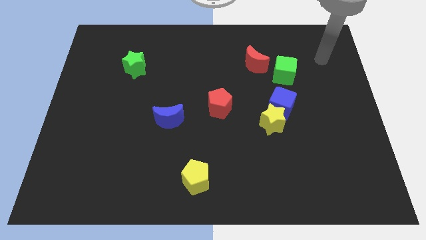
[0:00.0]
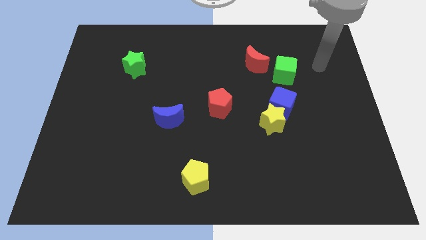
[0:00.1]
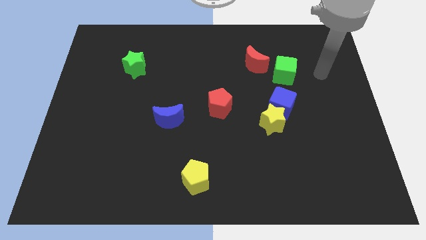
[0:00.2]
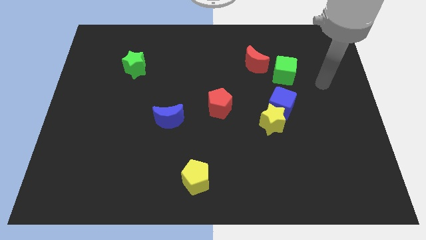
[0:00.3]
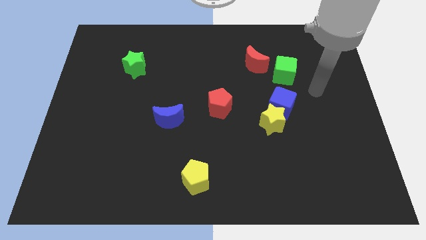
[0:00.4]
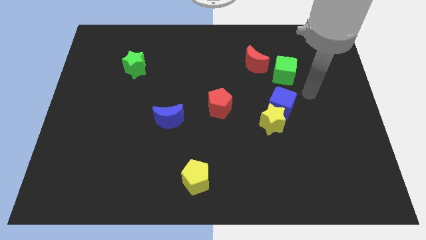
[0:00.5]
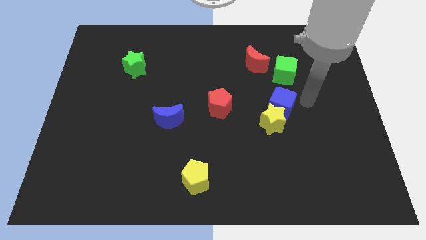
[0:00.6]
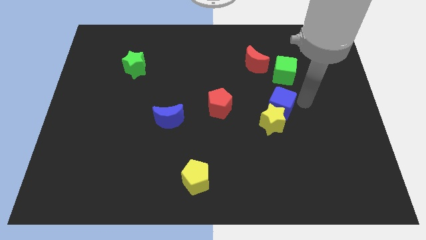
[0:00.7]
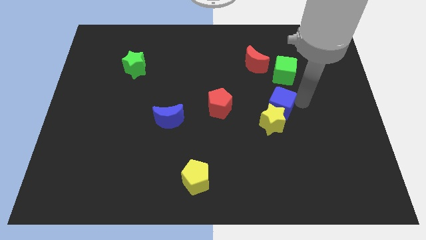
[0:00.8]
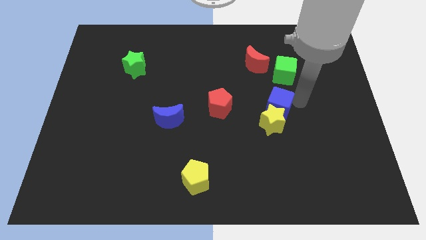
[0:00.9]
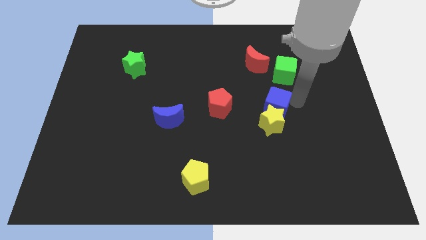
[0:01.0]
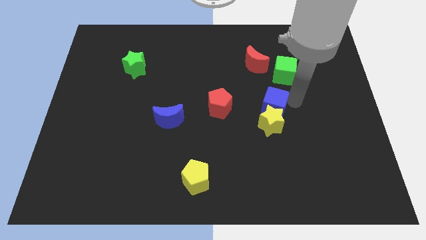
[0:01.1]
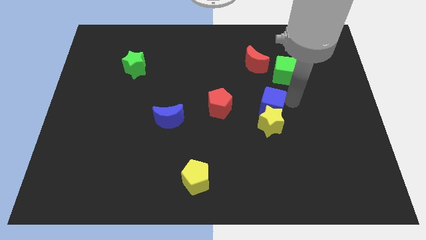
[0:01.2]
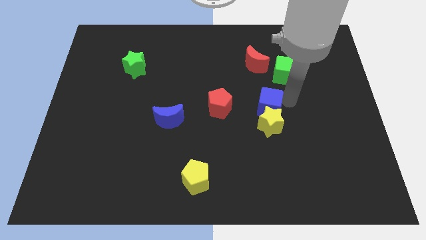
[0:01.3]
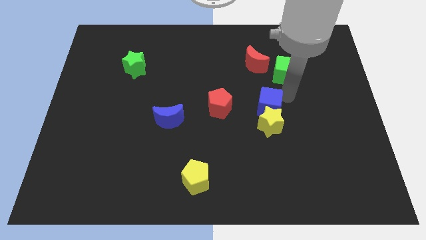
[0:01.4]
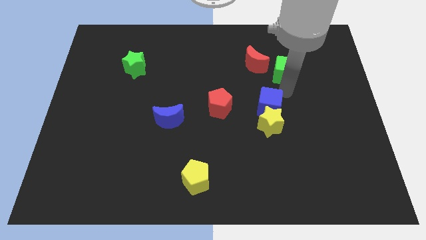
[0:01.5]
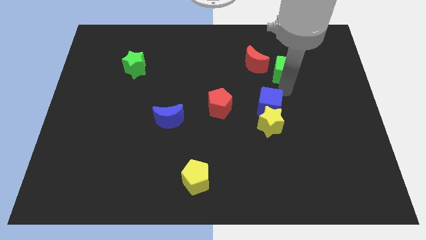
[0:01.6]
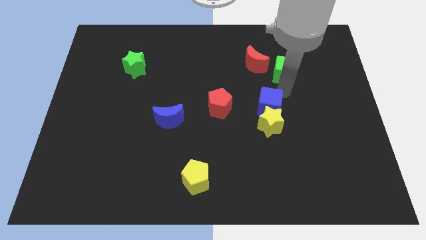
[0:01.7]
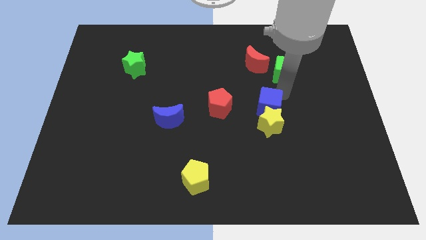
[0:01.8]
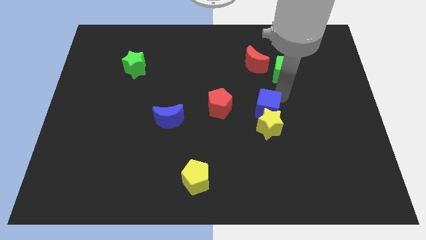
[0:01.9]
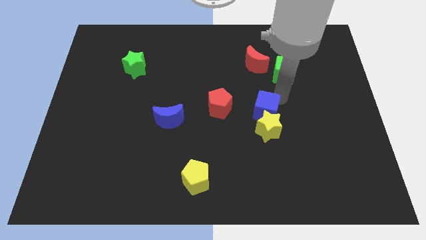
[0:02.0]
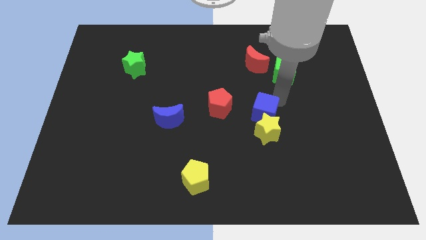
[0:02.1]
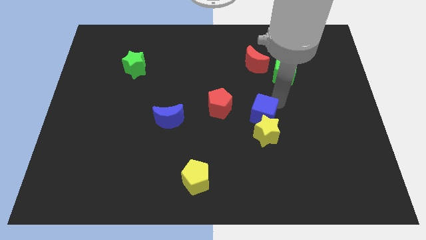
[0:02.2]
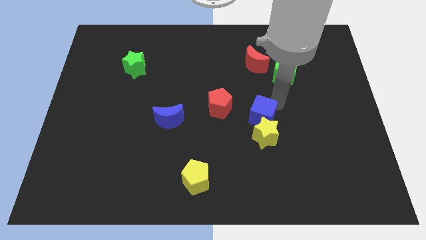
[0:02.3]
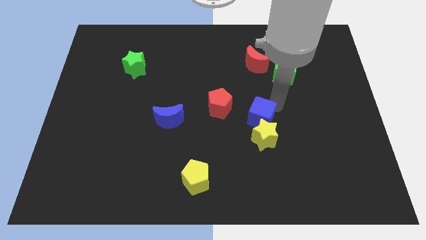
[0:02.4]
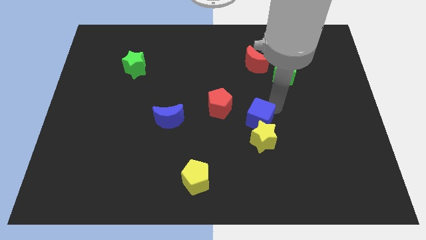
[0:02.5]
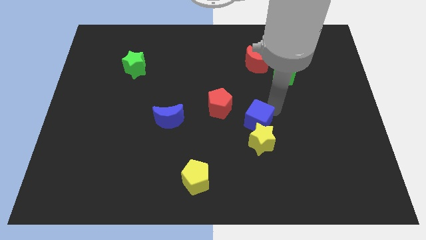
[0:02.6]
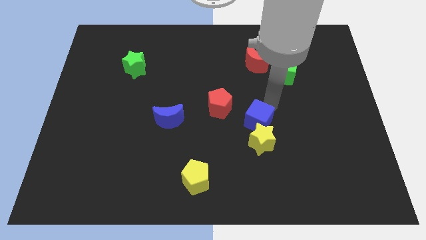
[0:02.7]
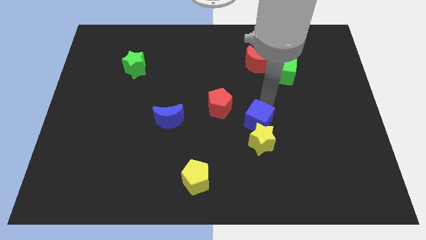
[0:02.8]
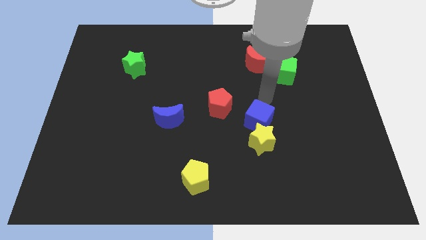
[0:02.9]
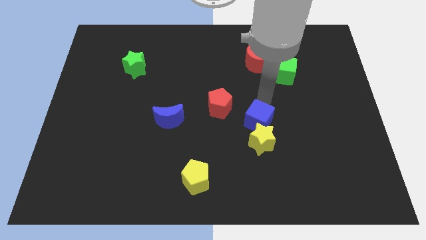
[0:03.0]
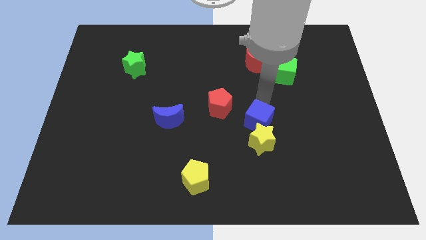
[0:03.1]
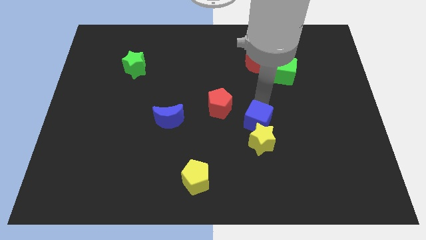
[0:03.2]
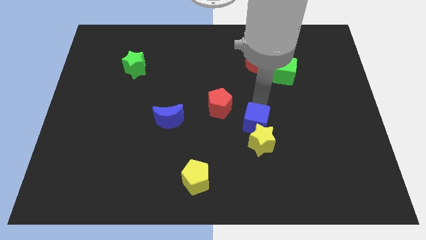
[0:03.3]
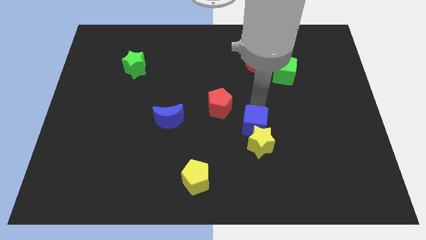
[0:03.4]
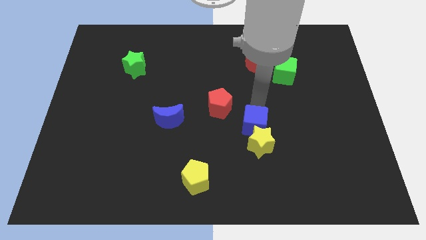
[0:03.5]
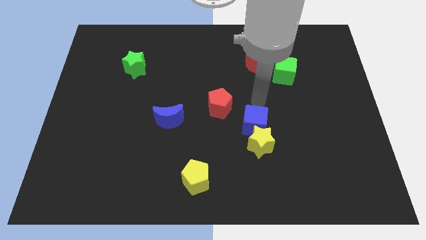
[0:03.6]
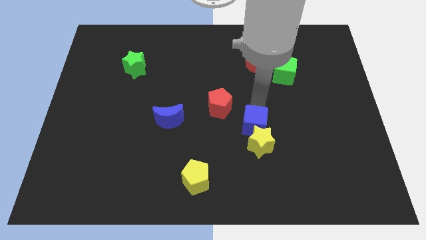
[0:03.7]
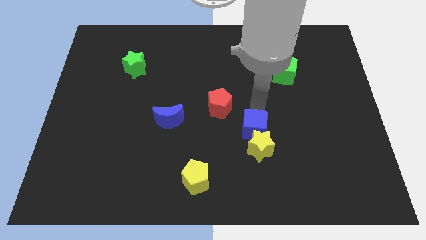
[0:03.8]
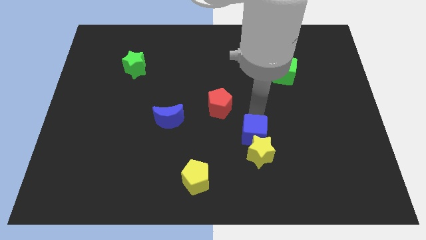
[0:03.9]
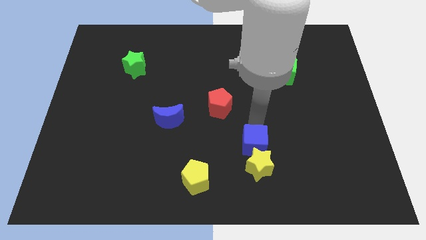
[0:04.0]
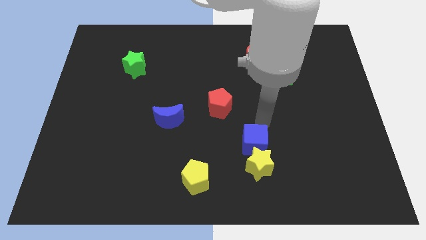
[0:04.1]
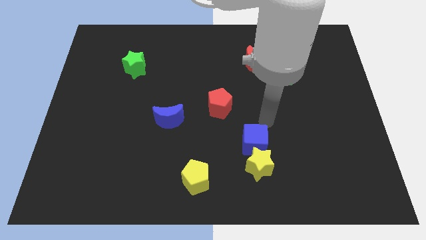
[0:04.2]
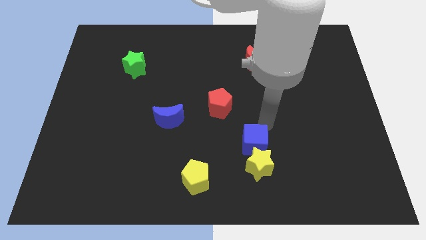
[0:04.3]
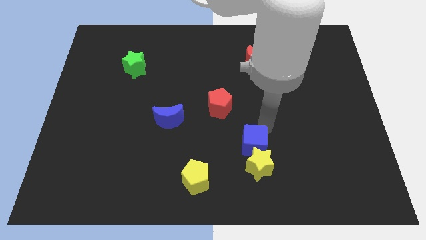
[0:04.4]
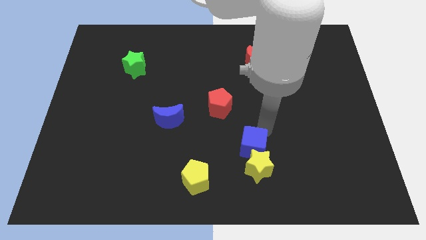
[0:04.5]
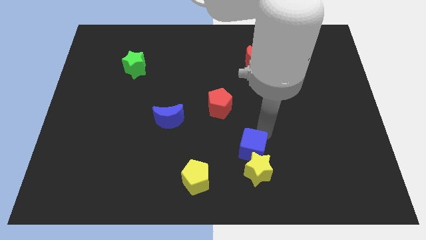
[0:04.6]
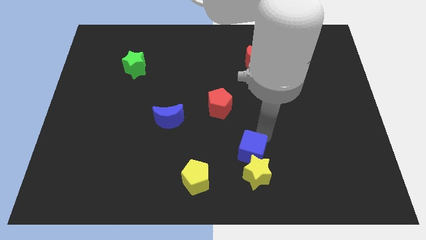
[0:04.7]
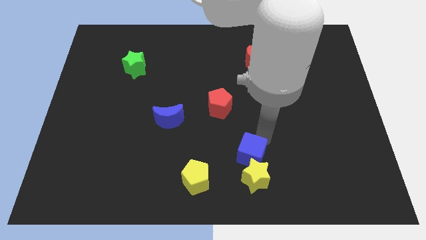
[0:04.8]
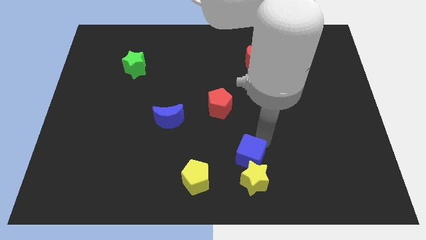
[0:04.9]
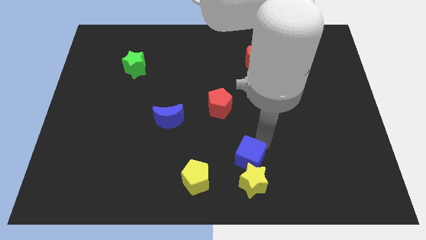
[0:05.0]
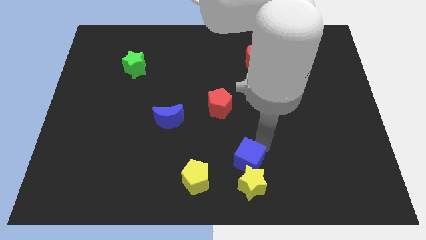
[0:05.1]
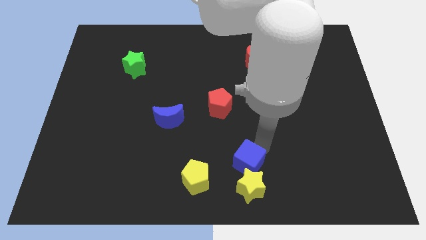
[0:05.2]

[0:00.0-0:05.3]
push the blue cube to the bottom side

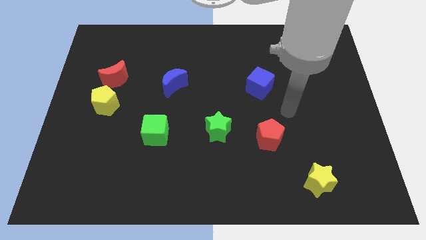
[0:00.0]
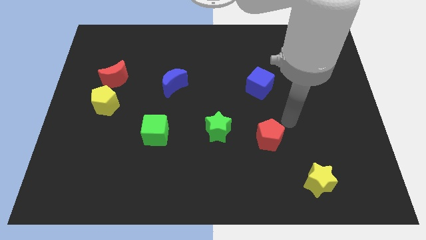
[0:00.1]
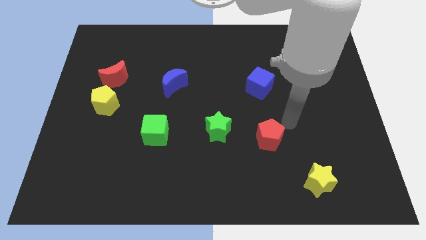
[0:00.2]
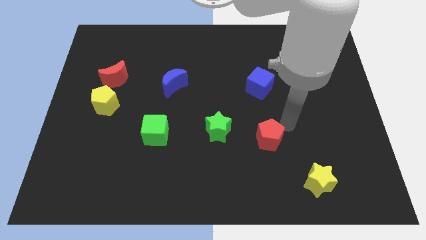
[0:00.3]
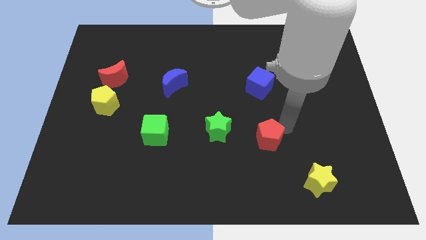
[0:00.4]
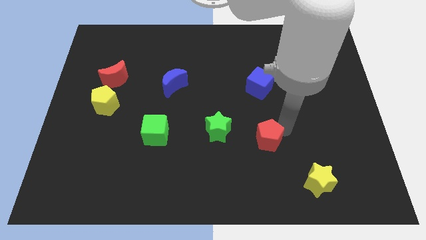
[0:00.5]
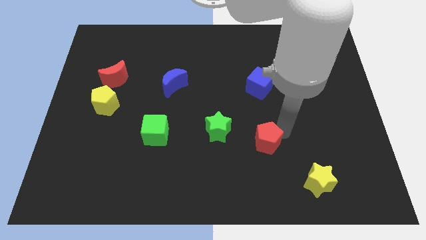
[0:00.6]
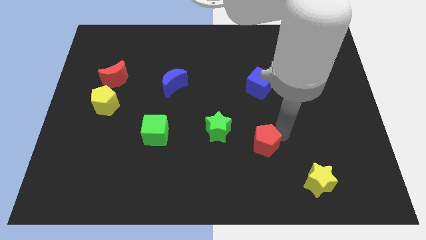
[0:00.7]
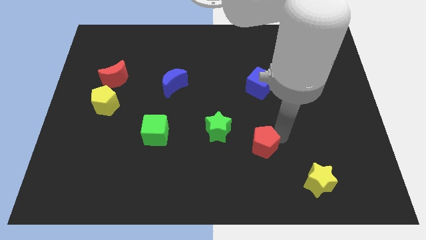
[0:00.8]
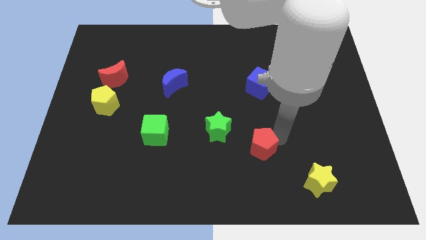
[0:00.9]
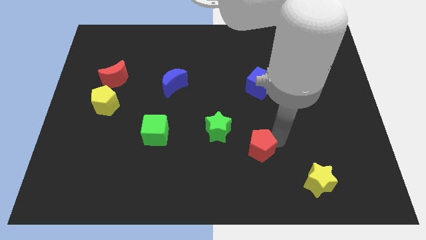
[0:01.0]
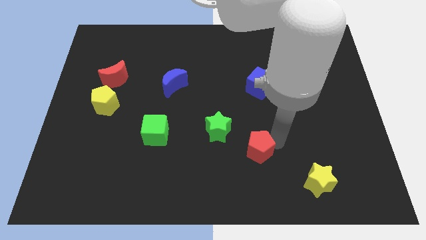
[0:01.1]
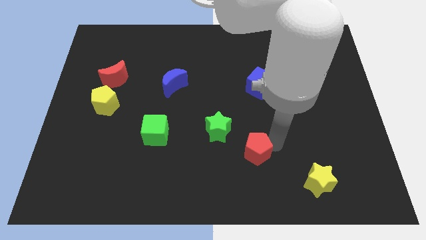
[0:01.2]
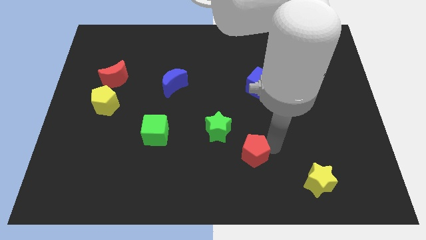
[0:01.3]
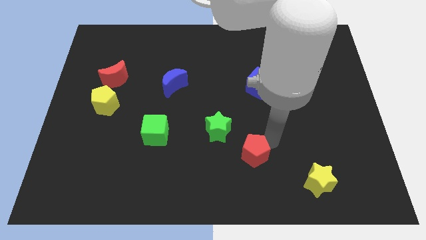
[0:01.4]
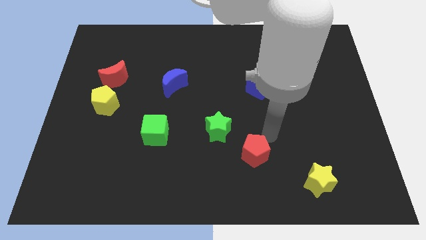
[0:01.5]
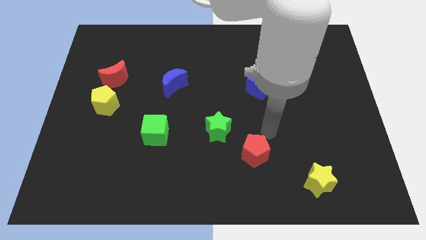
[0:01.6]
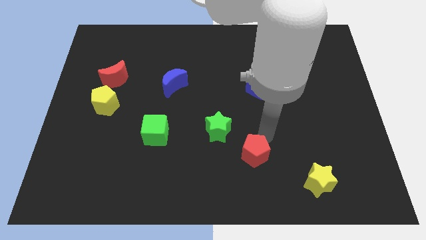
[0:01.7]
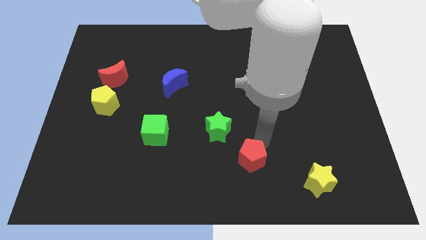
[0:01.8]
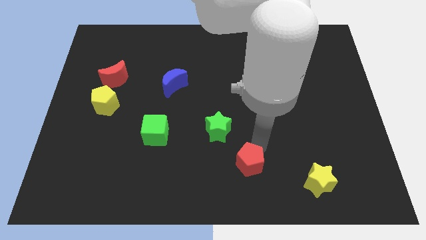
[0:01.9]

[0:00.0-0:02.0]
push the red pentagon to the bottom side
